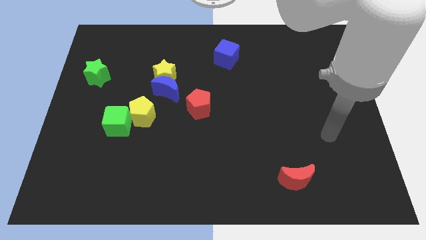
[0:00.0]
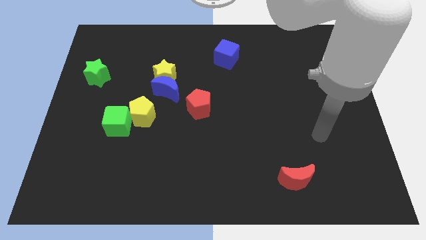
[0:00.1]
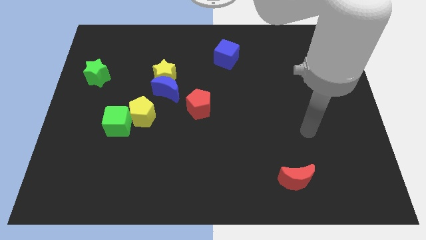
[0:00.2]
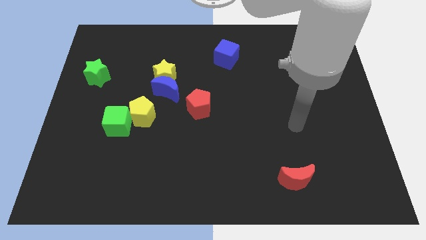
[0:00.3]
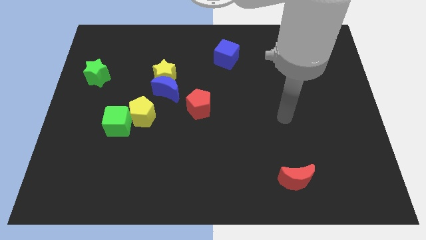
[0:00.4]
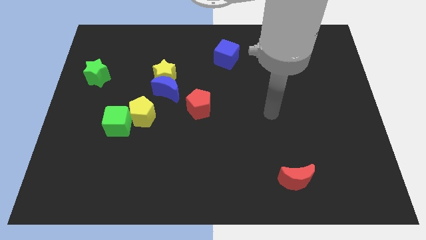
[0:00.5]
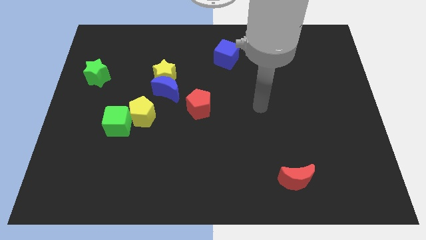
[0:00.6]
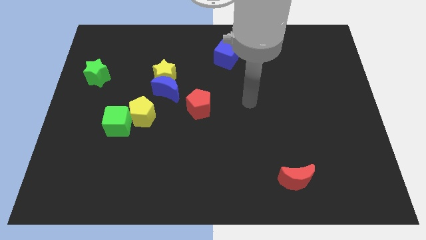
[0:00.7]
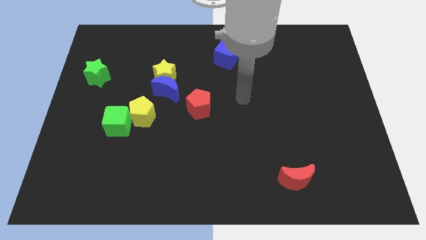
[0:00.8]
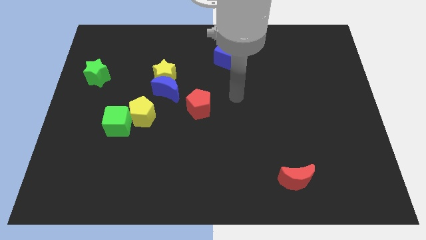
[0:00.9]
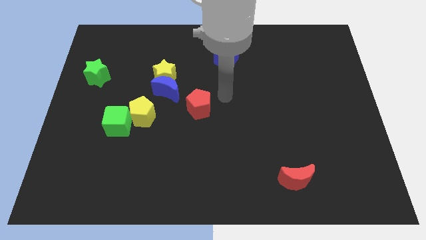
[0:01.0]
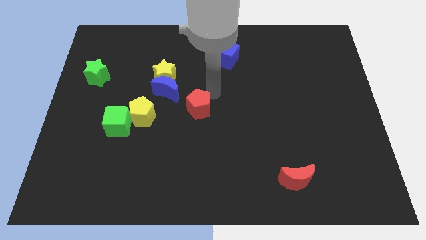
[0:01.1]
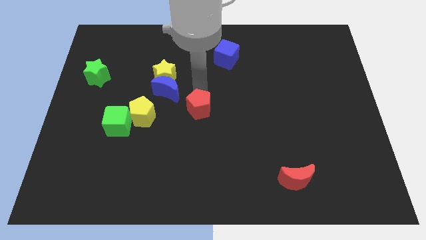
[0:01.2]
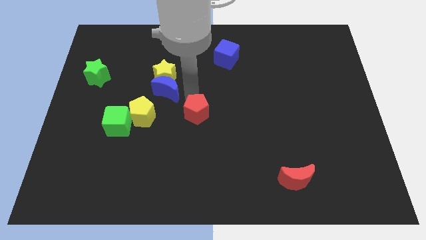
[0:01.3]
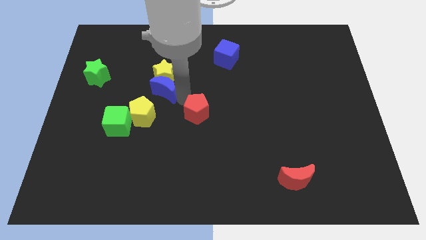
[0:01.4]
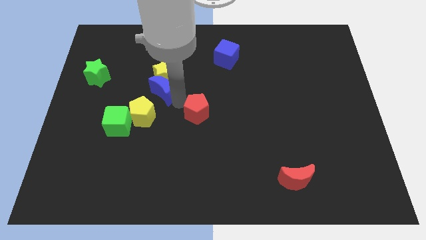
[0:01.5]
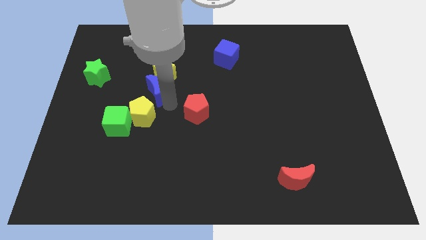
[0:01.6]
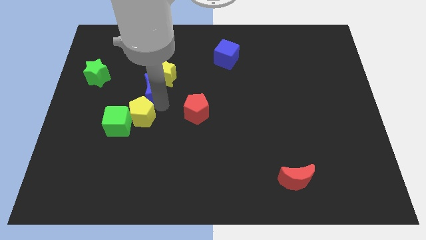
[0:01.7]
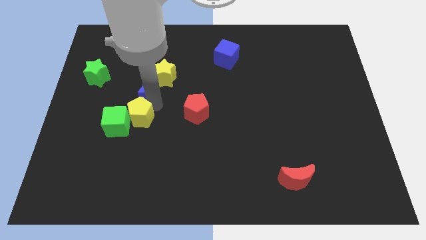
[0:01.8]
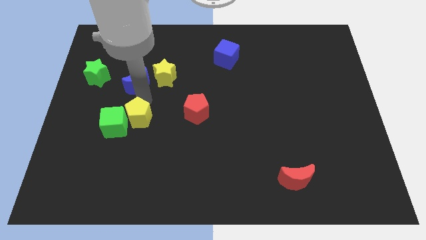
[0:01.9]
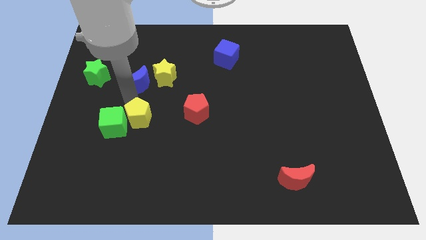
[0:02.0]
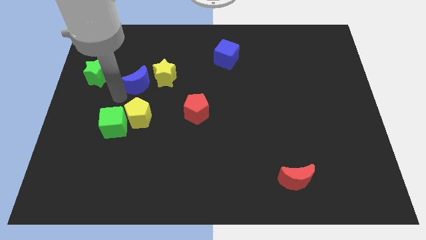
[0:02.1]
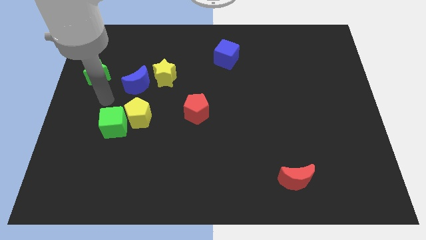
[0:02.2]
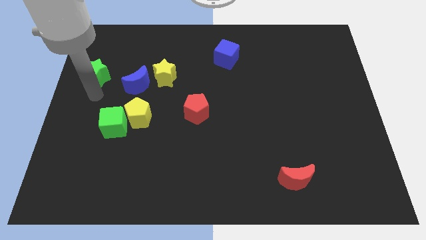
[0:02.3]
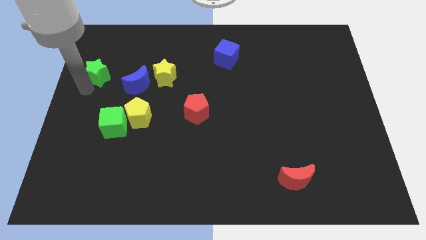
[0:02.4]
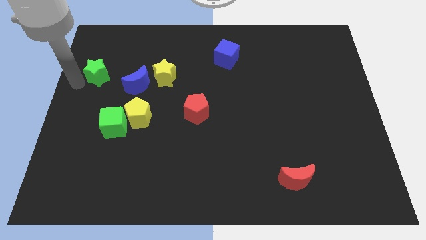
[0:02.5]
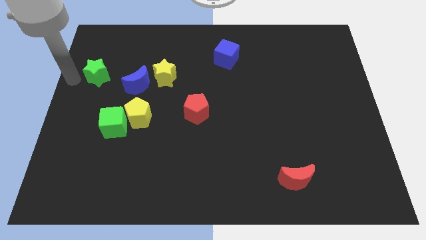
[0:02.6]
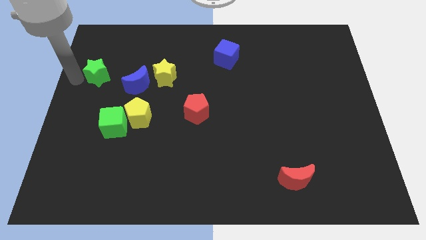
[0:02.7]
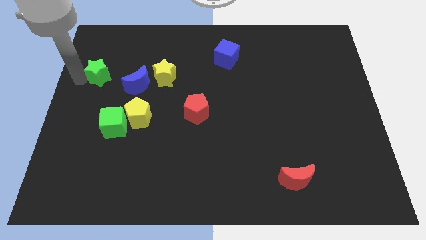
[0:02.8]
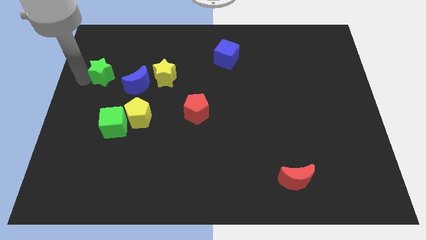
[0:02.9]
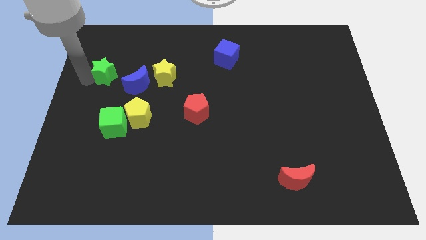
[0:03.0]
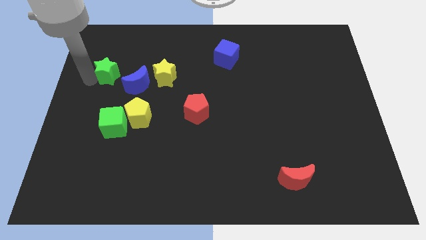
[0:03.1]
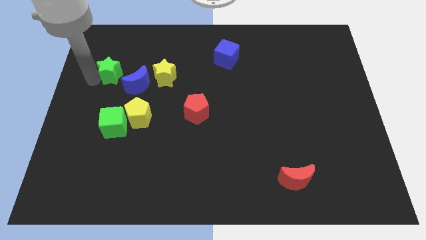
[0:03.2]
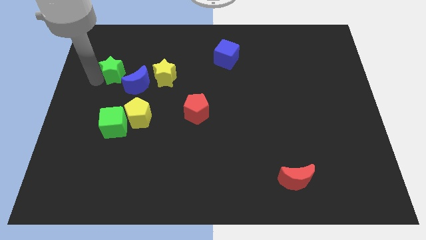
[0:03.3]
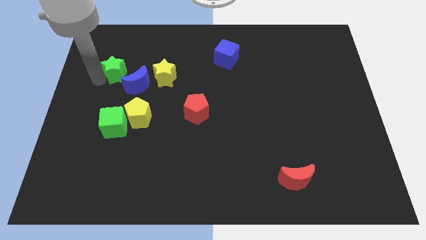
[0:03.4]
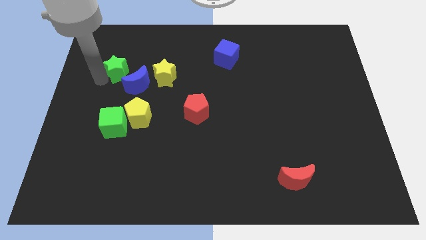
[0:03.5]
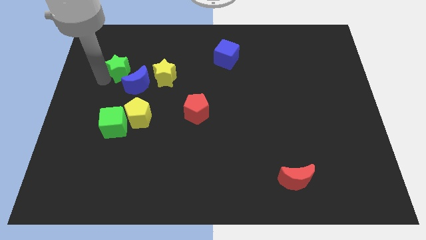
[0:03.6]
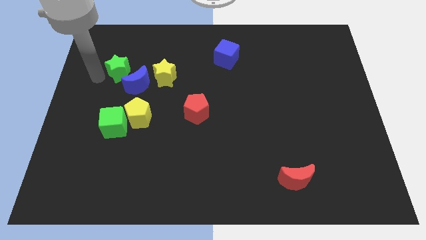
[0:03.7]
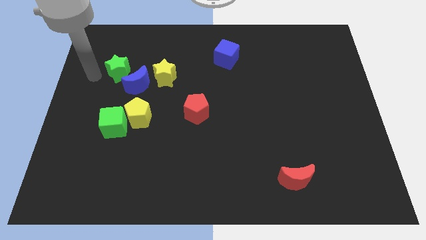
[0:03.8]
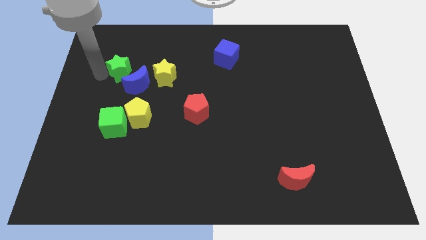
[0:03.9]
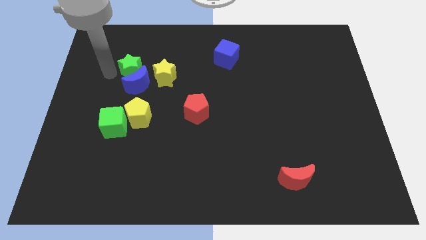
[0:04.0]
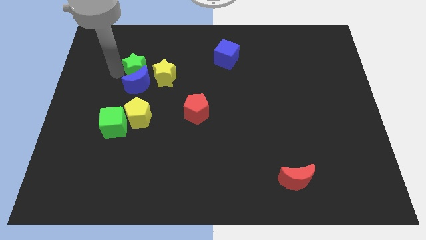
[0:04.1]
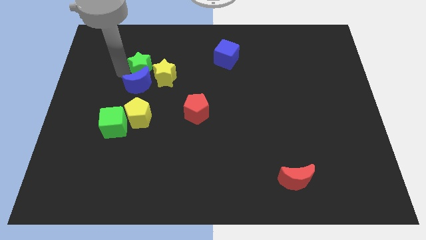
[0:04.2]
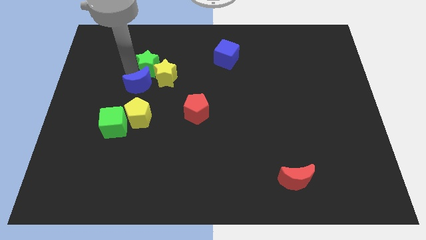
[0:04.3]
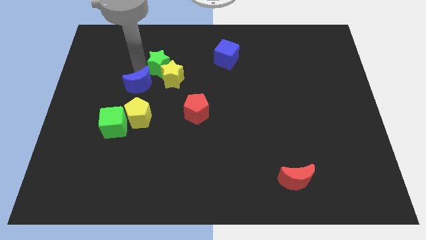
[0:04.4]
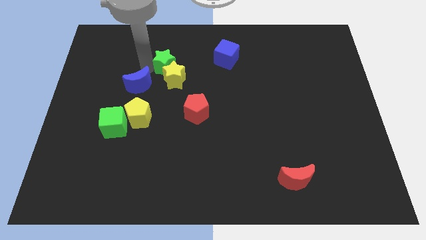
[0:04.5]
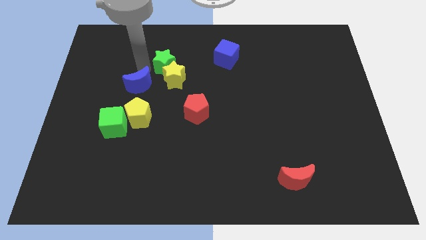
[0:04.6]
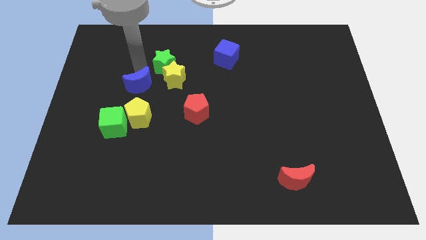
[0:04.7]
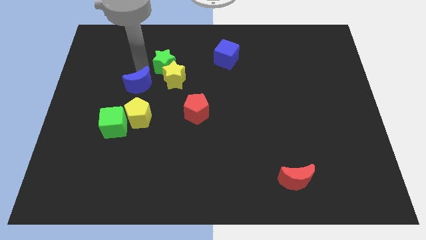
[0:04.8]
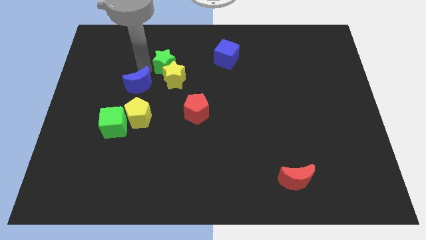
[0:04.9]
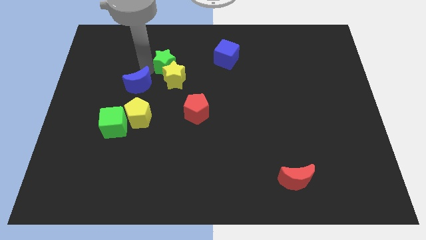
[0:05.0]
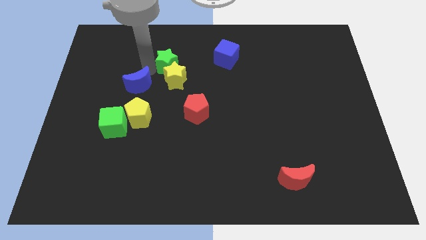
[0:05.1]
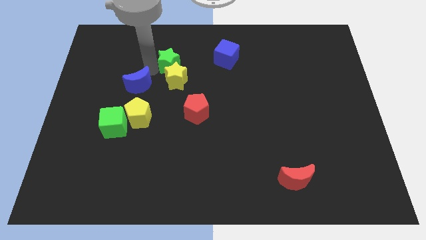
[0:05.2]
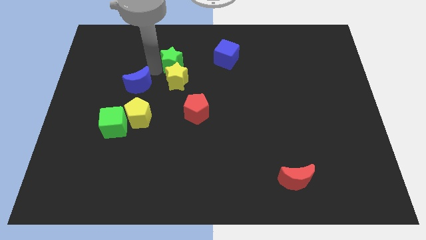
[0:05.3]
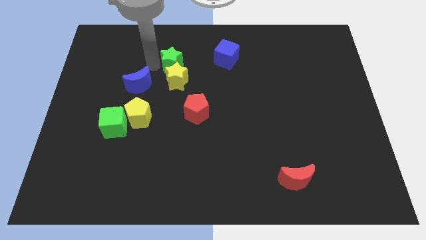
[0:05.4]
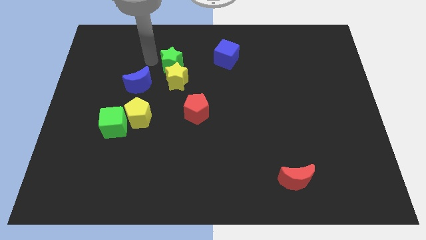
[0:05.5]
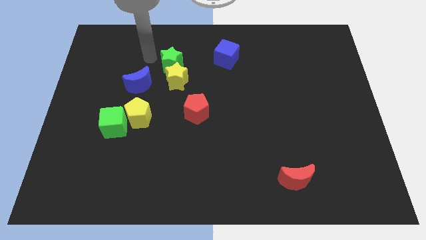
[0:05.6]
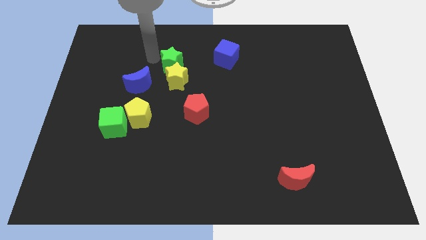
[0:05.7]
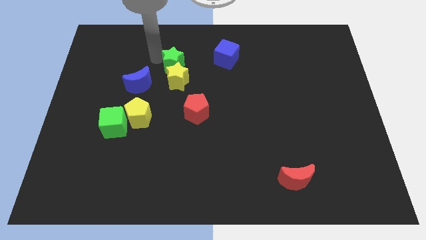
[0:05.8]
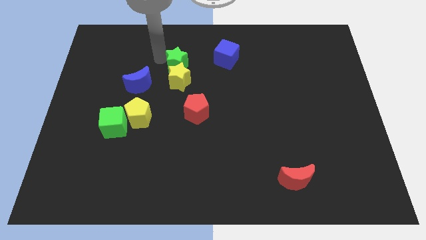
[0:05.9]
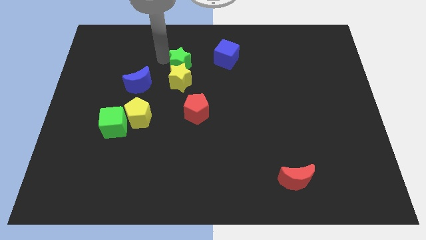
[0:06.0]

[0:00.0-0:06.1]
slide the green star to the right

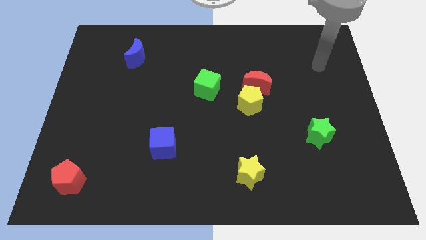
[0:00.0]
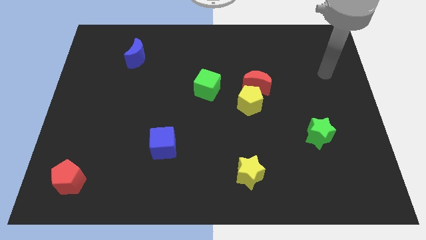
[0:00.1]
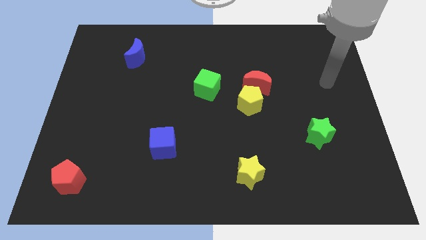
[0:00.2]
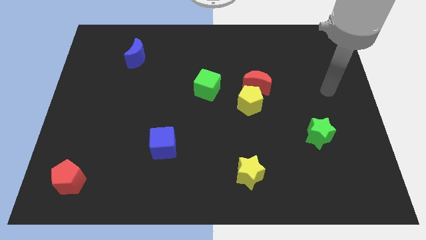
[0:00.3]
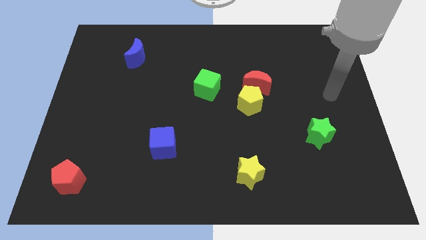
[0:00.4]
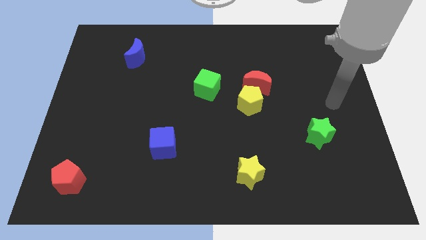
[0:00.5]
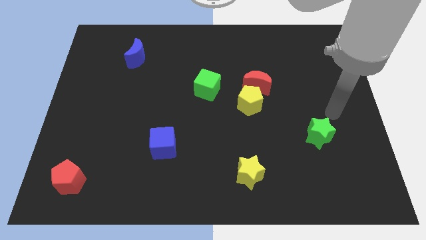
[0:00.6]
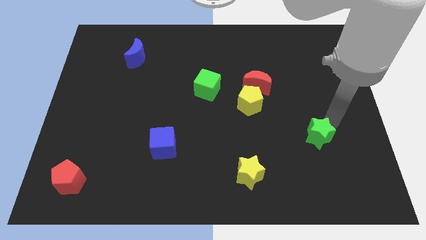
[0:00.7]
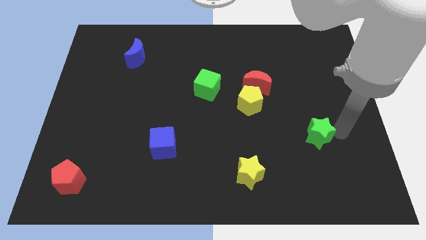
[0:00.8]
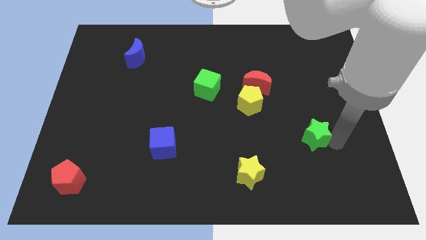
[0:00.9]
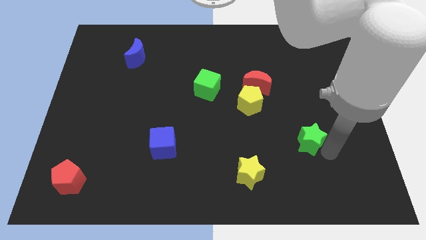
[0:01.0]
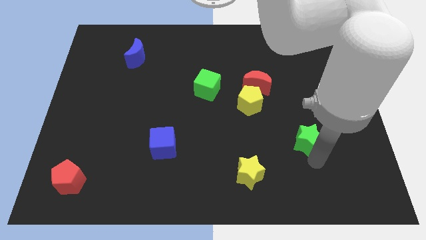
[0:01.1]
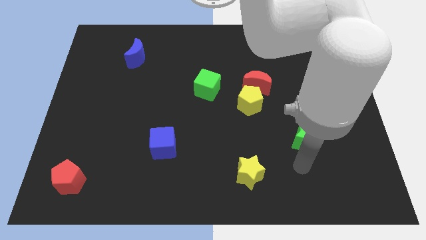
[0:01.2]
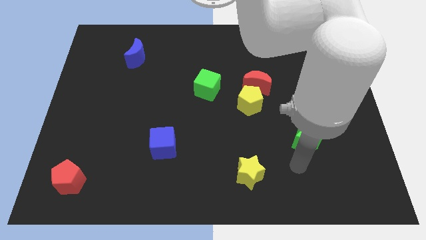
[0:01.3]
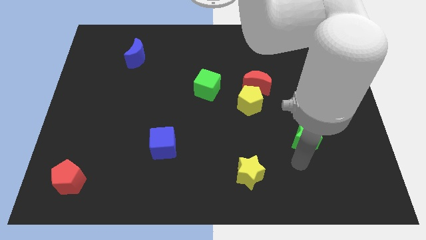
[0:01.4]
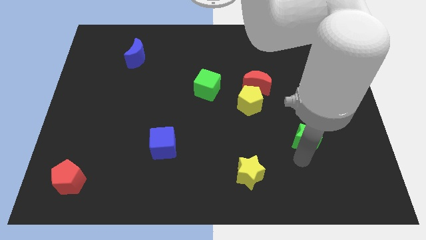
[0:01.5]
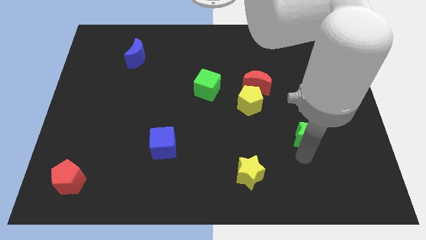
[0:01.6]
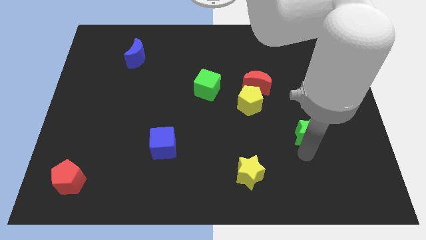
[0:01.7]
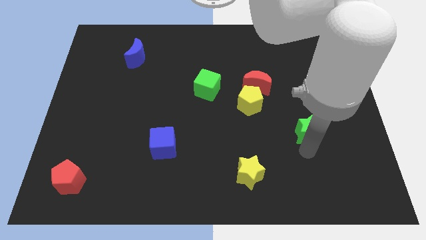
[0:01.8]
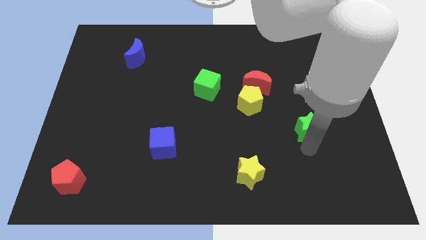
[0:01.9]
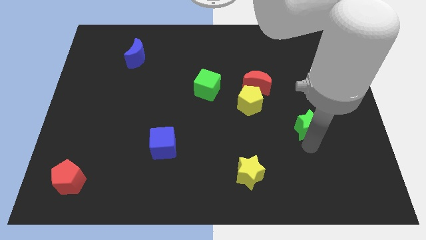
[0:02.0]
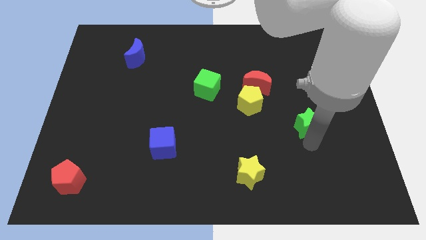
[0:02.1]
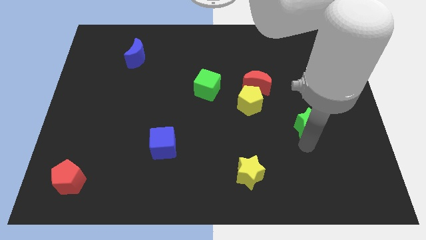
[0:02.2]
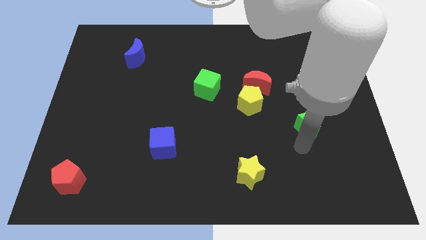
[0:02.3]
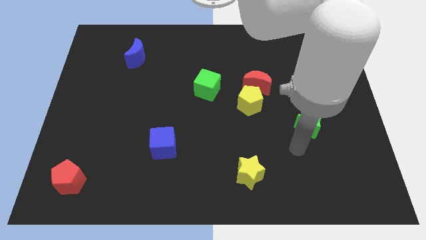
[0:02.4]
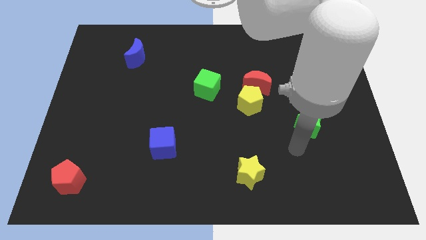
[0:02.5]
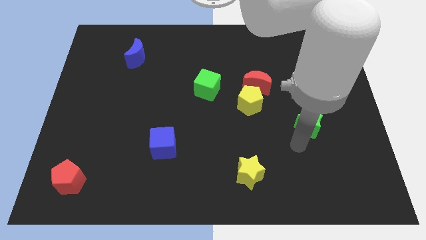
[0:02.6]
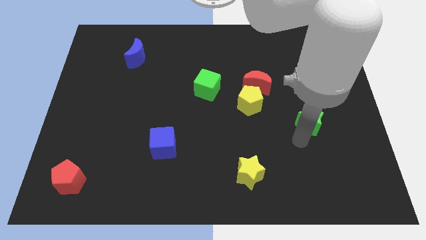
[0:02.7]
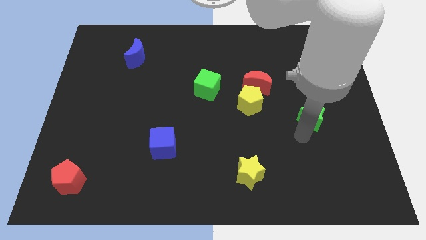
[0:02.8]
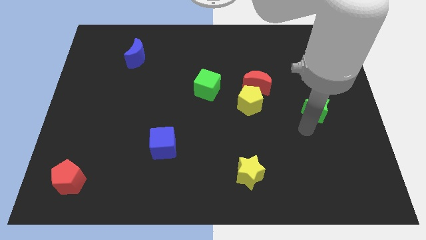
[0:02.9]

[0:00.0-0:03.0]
slide the green star up a little
